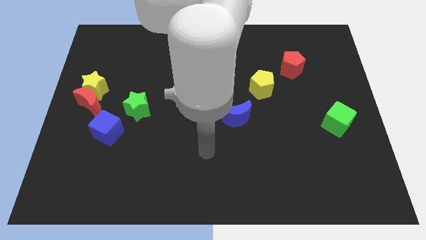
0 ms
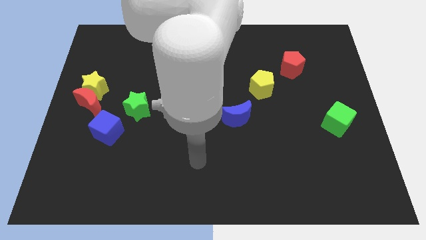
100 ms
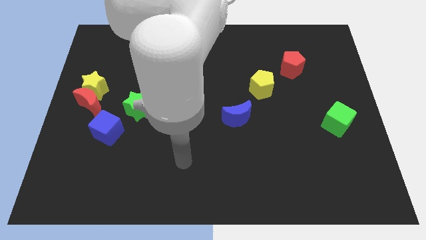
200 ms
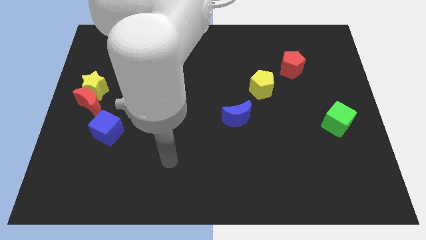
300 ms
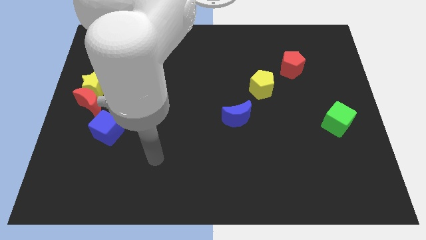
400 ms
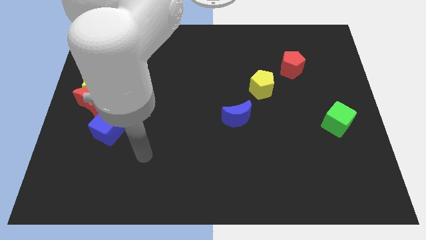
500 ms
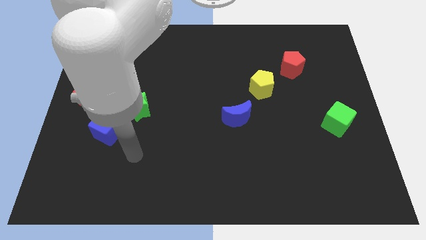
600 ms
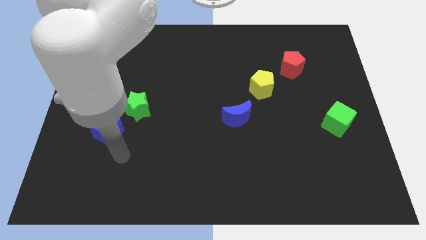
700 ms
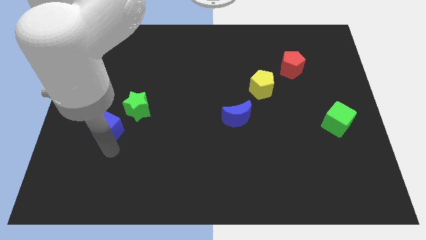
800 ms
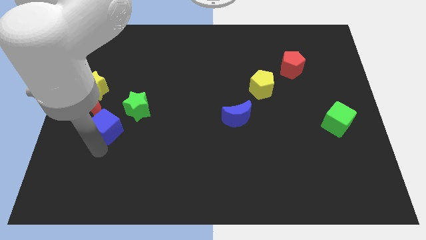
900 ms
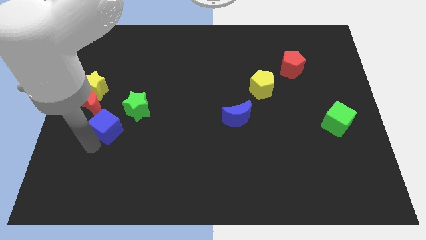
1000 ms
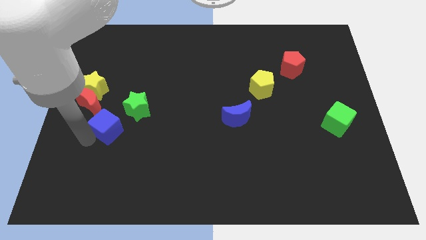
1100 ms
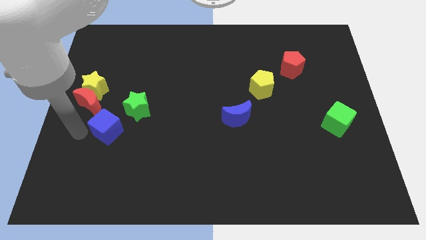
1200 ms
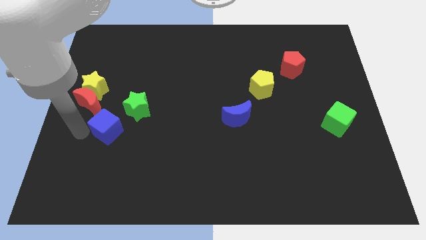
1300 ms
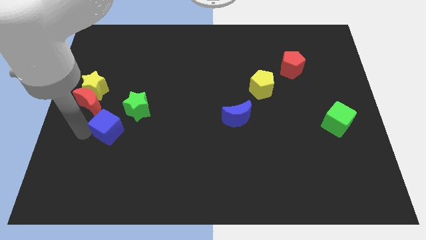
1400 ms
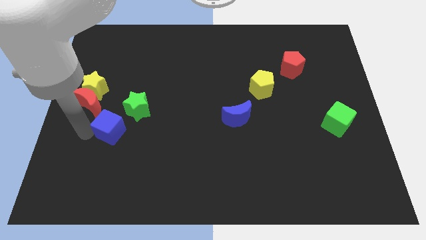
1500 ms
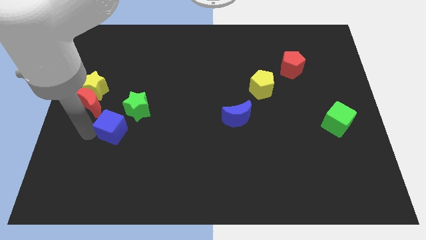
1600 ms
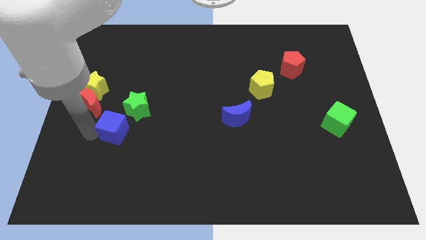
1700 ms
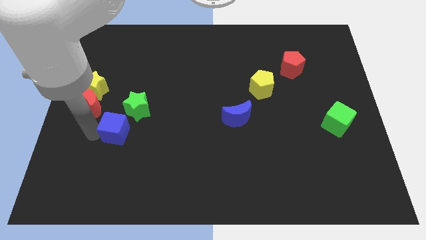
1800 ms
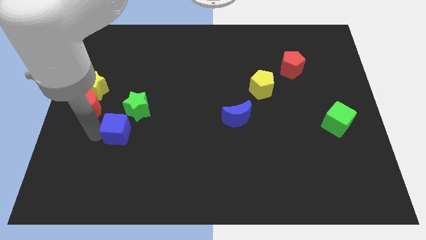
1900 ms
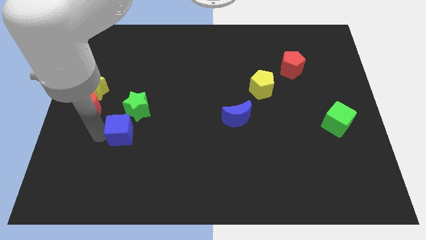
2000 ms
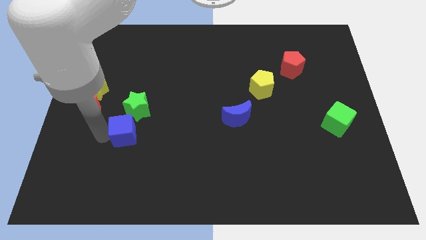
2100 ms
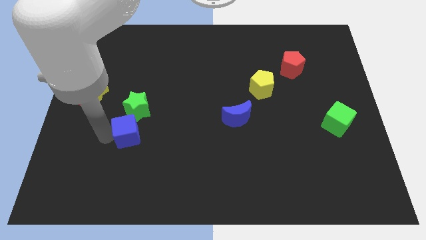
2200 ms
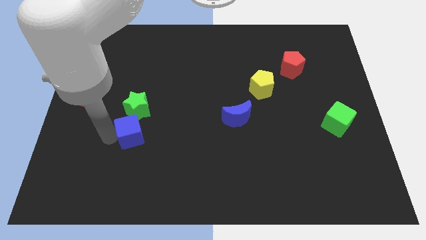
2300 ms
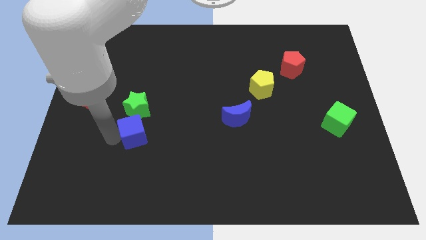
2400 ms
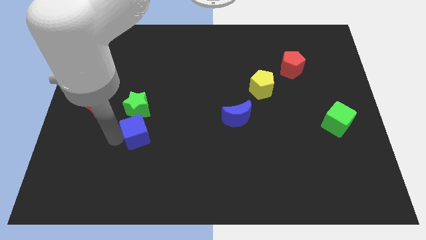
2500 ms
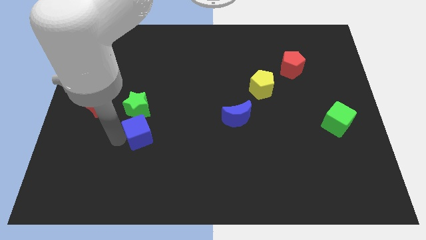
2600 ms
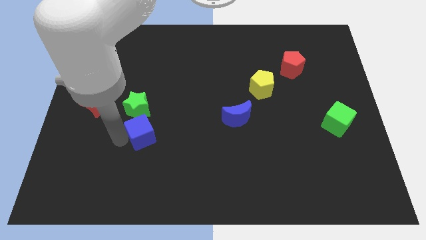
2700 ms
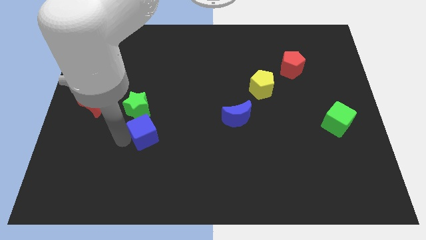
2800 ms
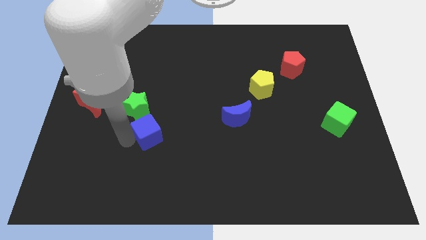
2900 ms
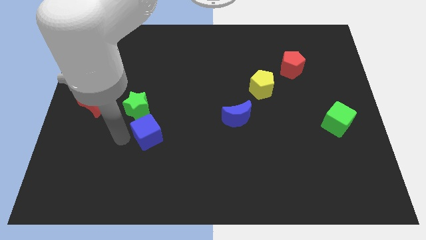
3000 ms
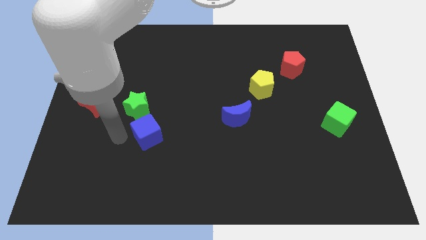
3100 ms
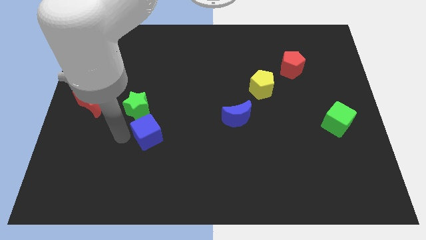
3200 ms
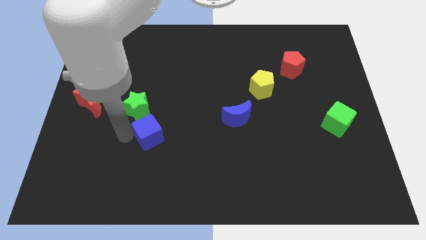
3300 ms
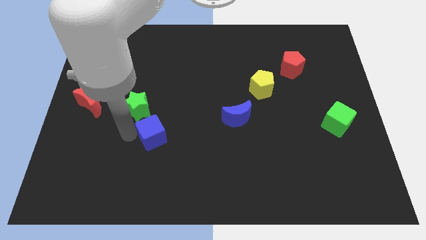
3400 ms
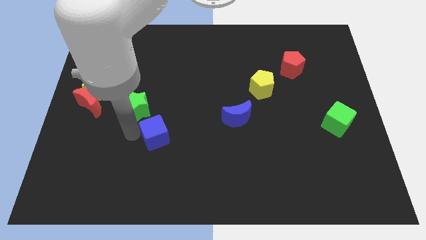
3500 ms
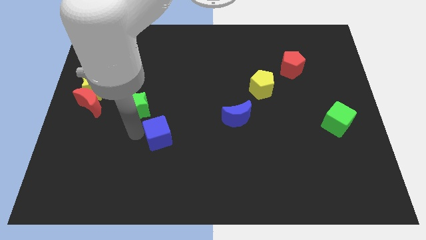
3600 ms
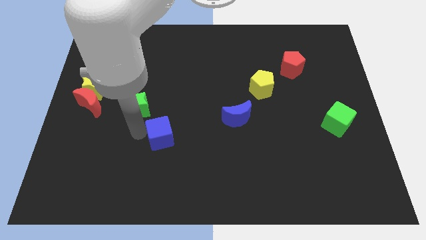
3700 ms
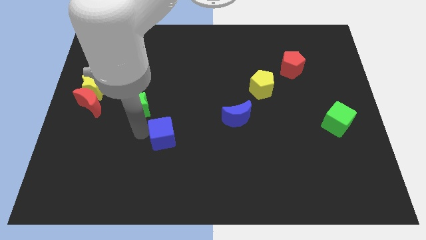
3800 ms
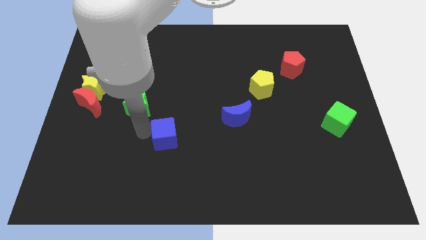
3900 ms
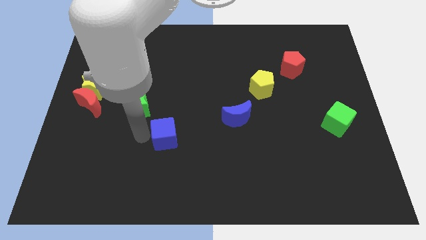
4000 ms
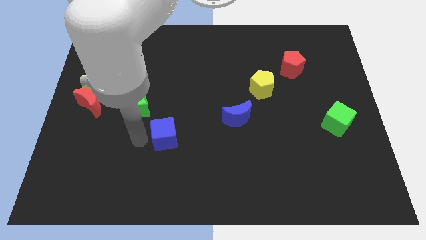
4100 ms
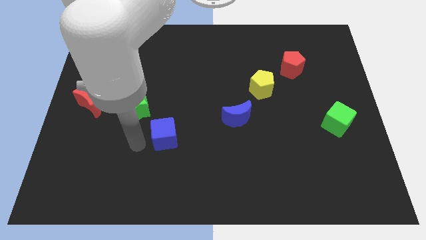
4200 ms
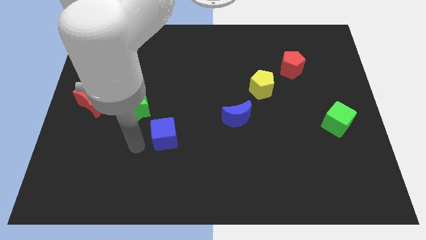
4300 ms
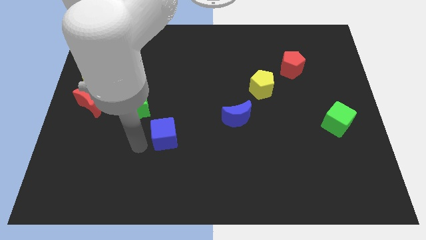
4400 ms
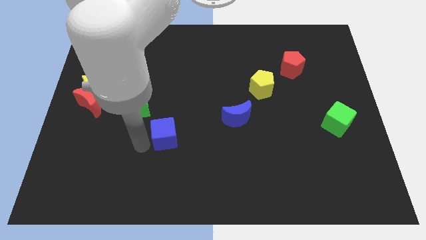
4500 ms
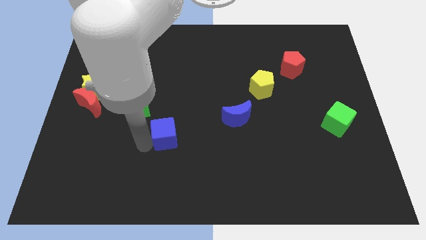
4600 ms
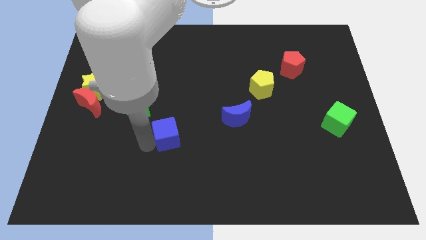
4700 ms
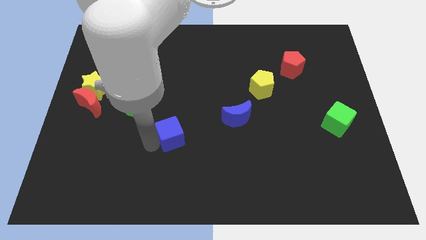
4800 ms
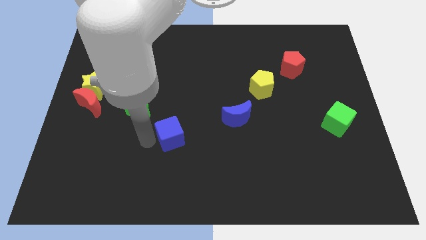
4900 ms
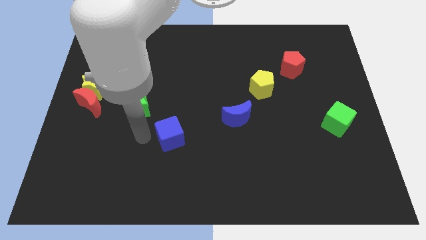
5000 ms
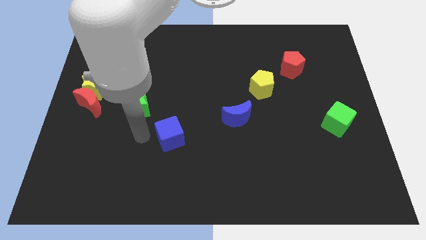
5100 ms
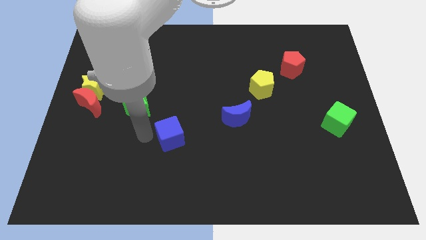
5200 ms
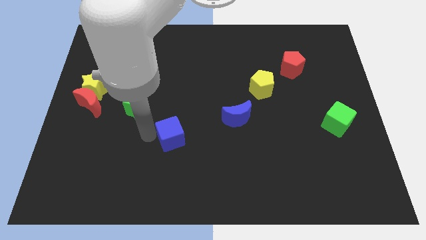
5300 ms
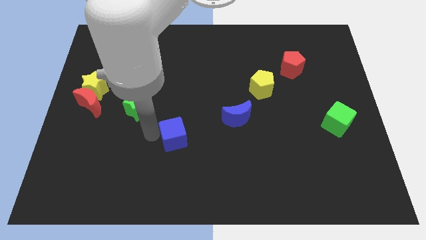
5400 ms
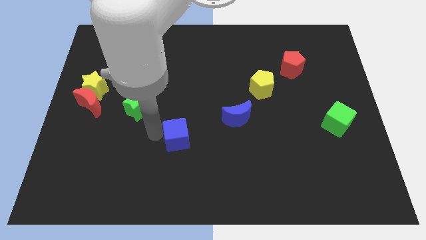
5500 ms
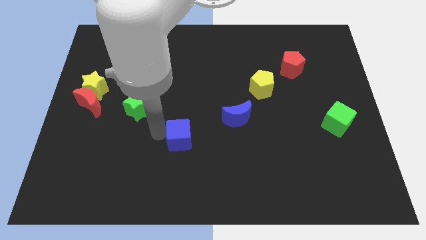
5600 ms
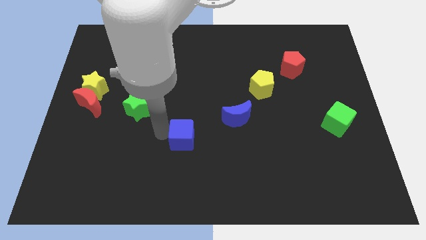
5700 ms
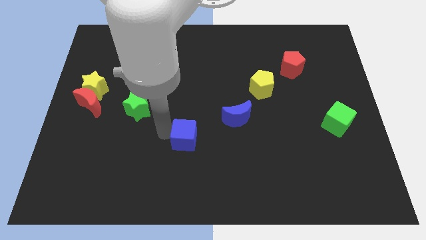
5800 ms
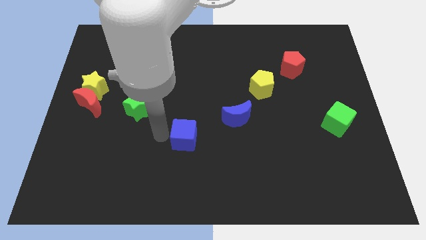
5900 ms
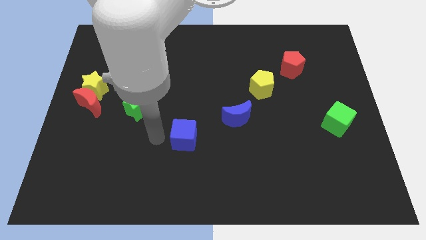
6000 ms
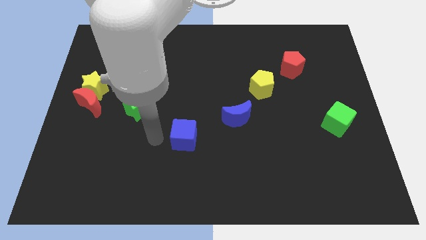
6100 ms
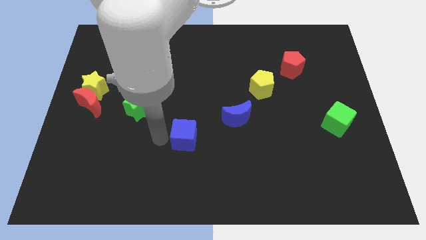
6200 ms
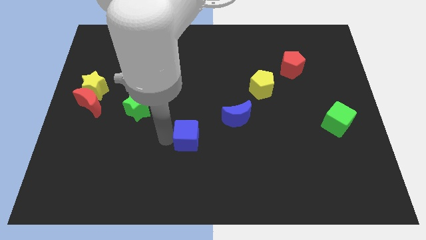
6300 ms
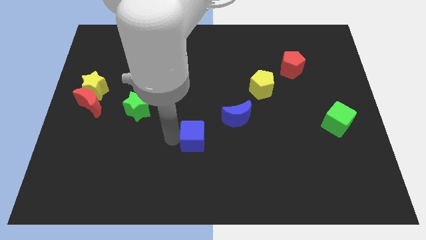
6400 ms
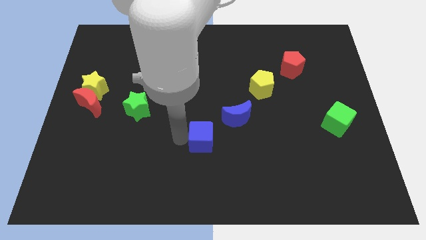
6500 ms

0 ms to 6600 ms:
move the blue cube right

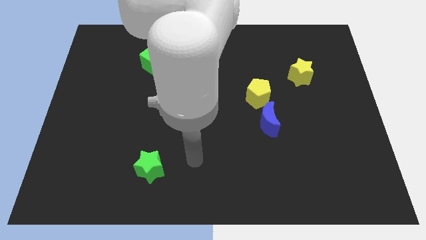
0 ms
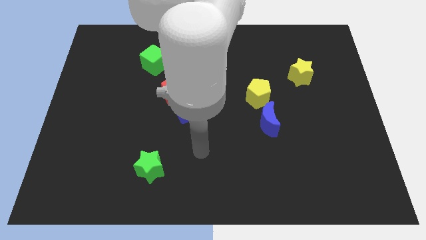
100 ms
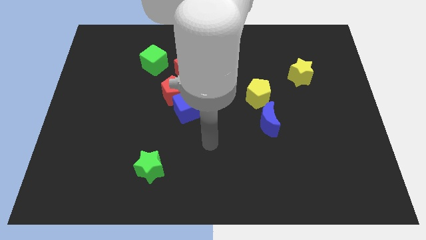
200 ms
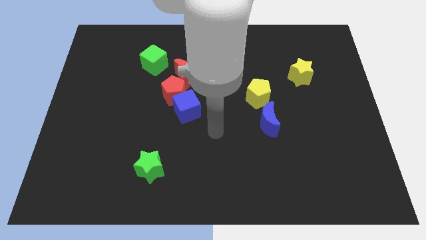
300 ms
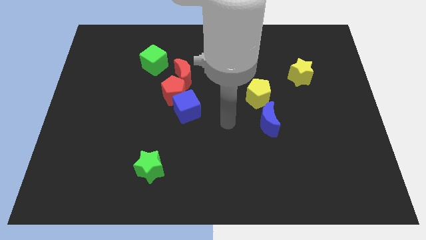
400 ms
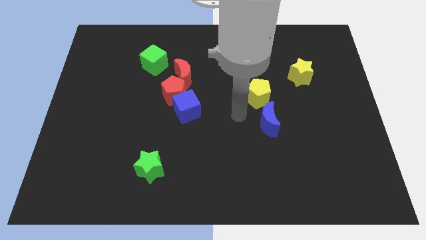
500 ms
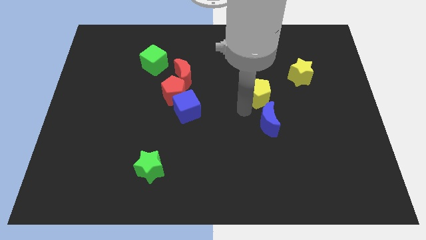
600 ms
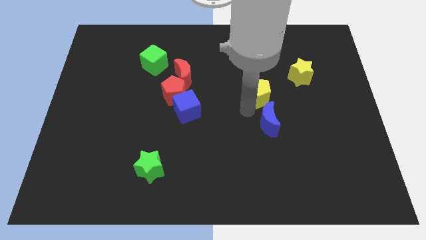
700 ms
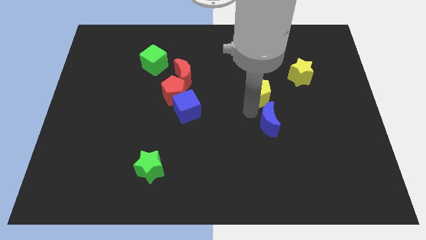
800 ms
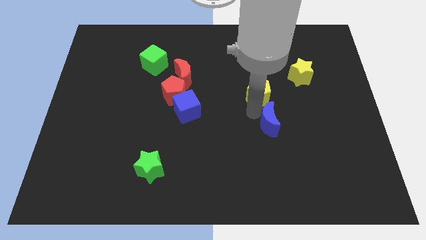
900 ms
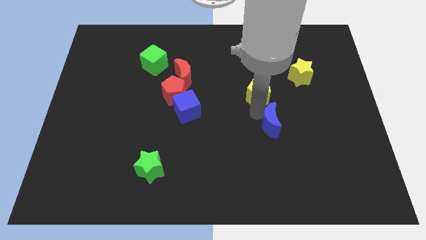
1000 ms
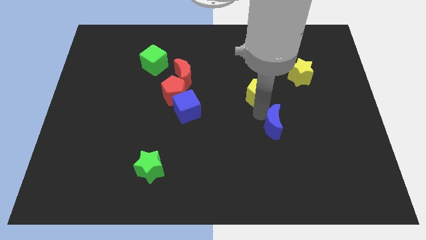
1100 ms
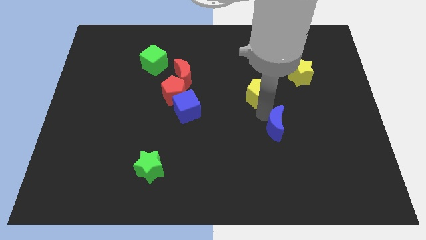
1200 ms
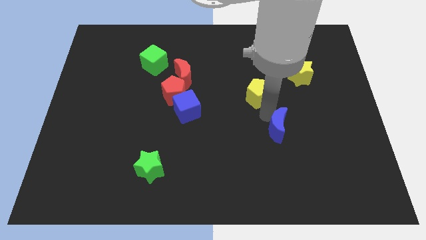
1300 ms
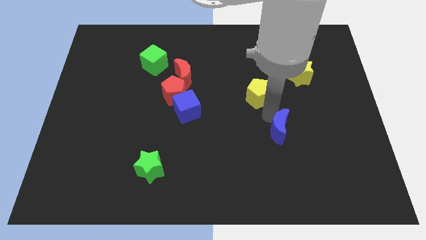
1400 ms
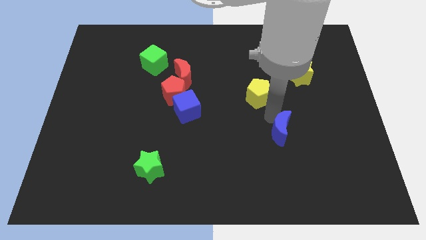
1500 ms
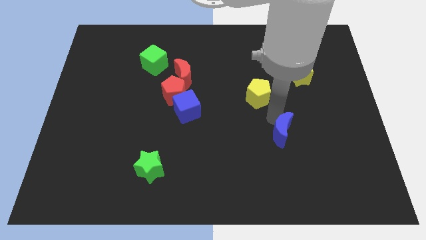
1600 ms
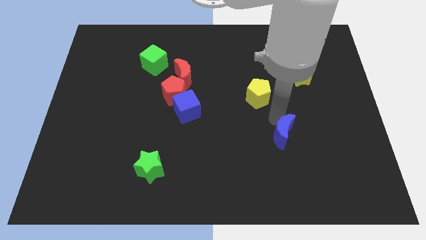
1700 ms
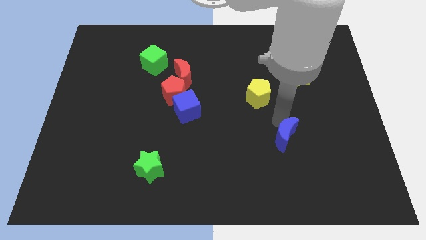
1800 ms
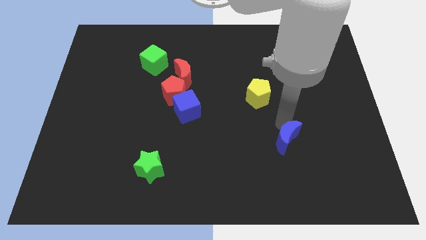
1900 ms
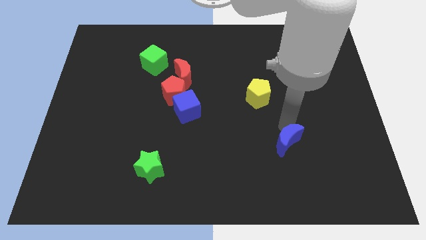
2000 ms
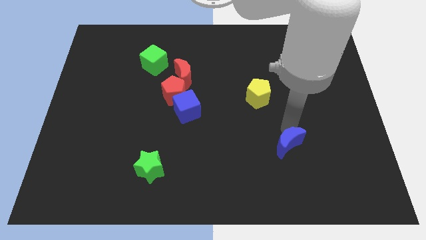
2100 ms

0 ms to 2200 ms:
slide the blue moon slightly downwards and then right
